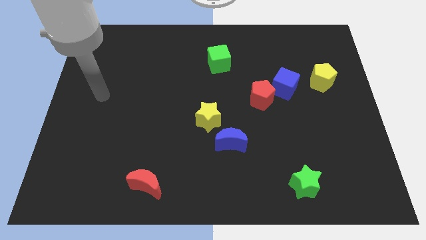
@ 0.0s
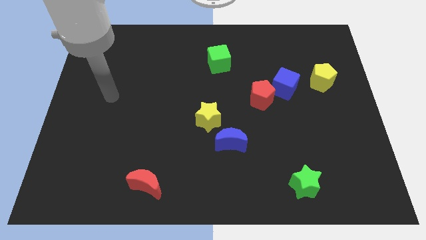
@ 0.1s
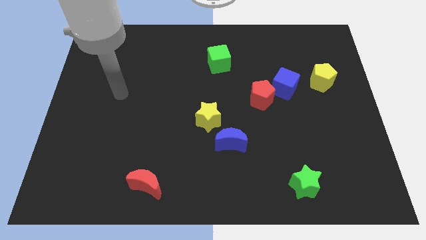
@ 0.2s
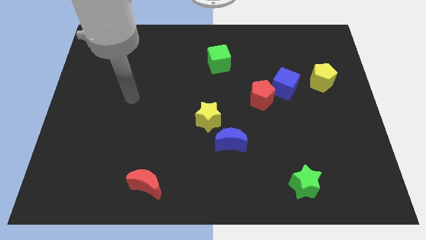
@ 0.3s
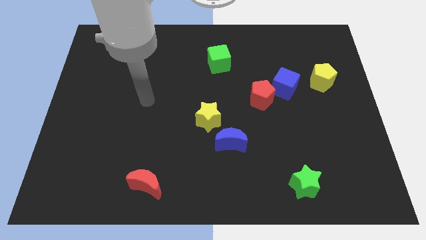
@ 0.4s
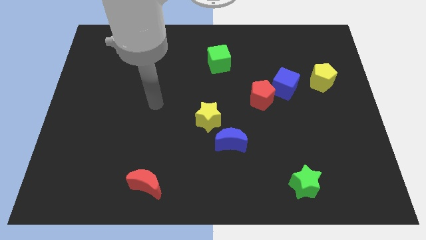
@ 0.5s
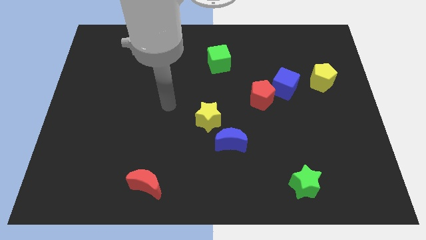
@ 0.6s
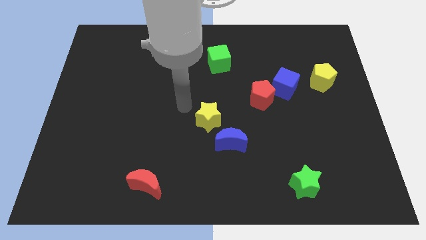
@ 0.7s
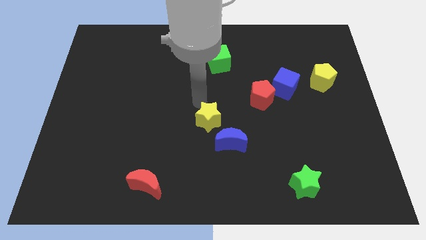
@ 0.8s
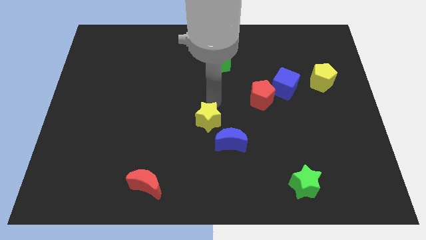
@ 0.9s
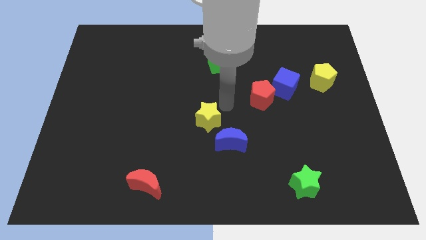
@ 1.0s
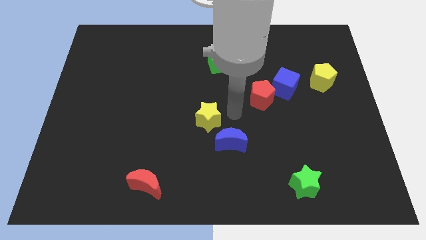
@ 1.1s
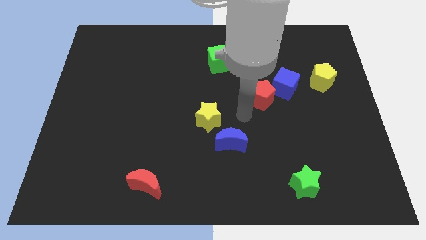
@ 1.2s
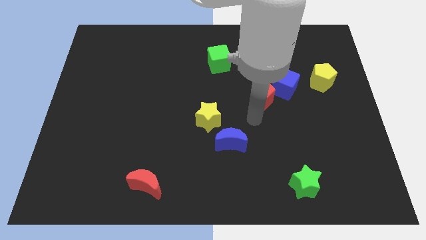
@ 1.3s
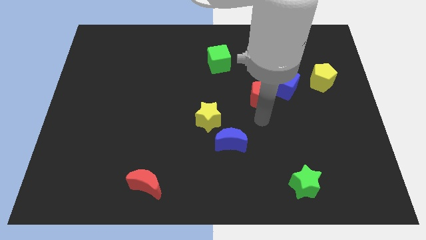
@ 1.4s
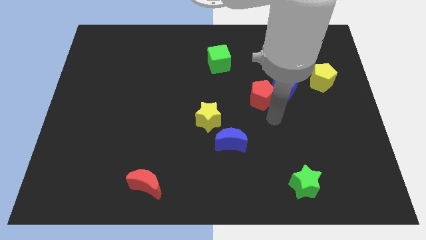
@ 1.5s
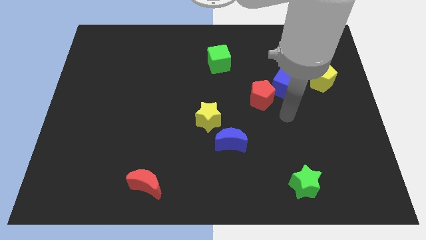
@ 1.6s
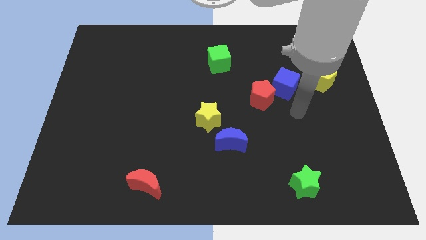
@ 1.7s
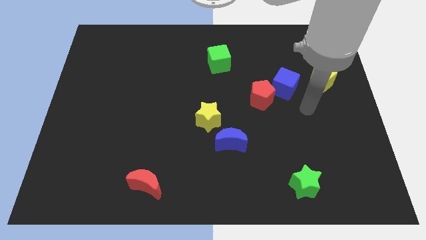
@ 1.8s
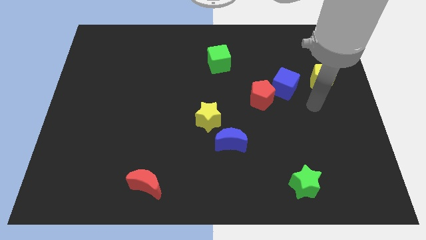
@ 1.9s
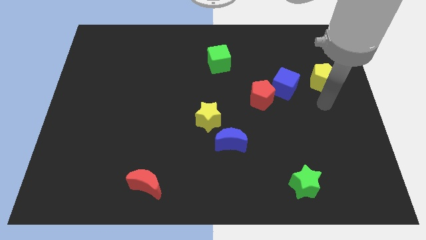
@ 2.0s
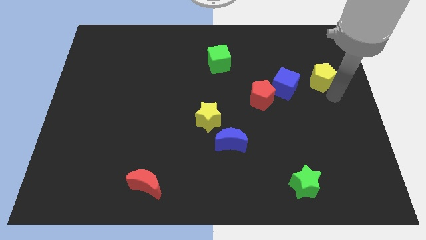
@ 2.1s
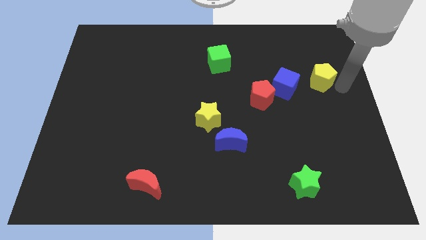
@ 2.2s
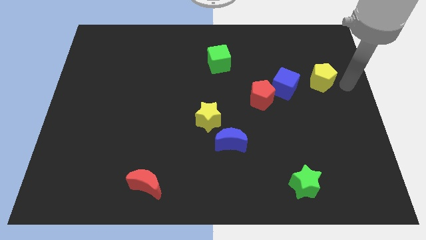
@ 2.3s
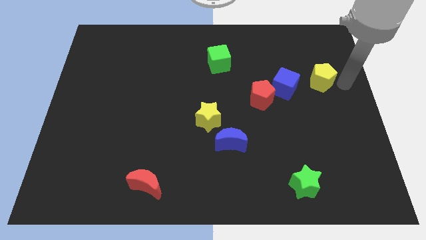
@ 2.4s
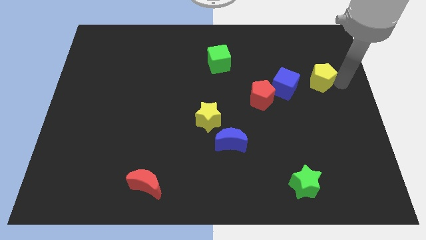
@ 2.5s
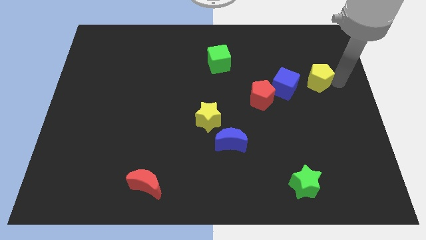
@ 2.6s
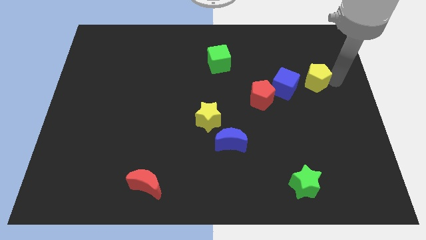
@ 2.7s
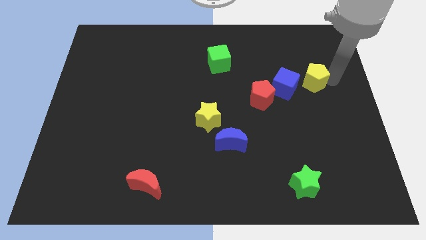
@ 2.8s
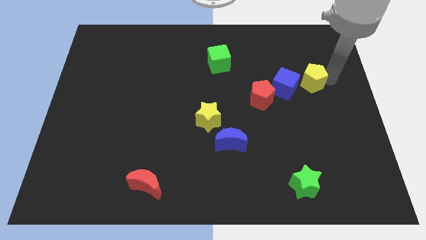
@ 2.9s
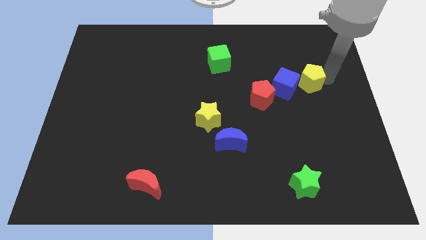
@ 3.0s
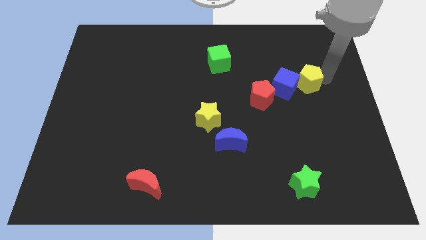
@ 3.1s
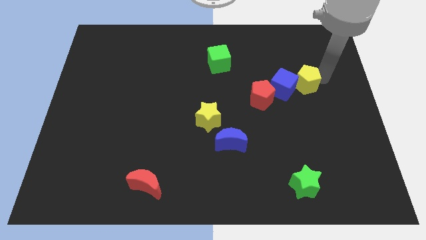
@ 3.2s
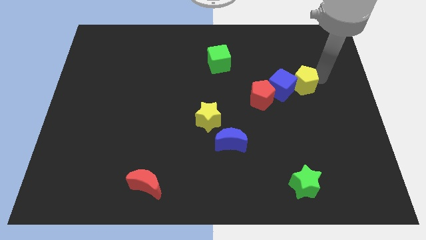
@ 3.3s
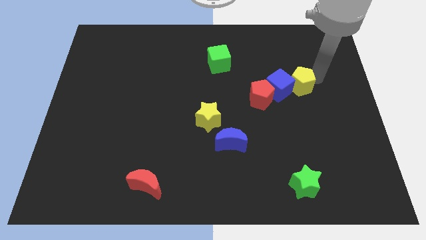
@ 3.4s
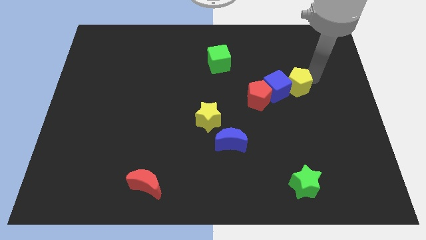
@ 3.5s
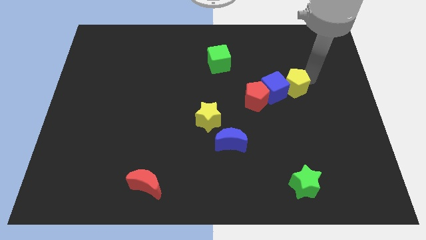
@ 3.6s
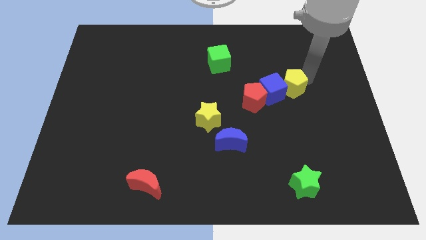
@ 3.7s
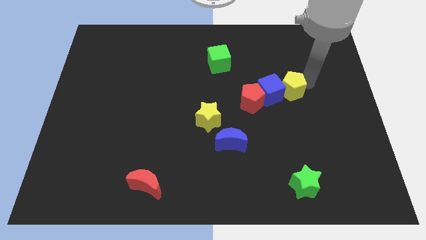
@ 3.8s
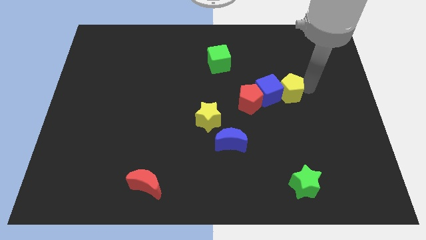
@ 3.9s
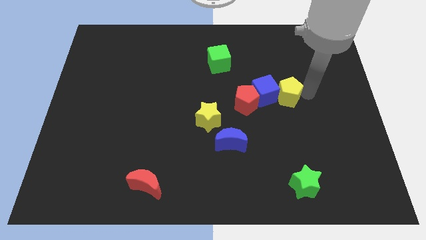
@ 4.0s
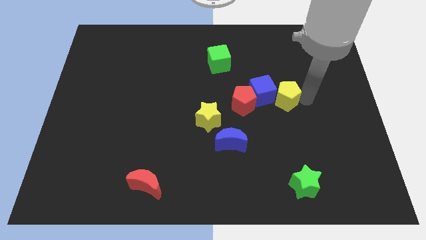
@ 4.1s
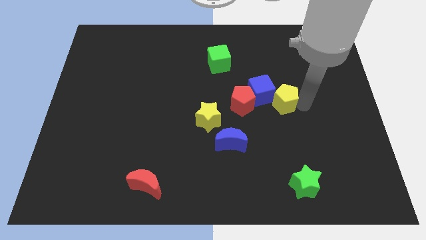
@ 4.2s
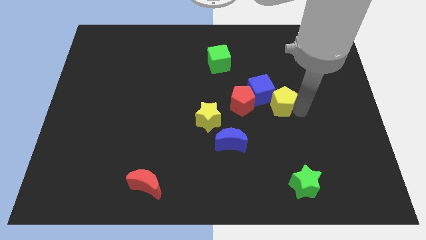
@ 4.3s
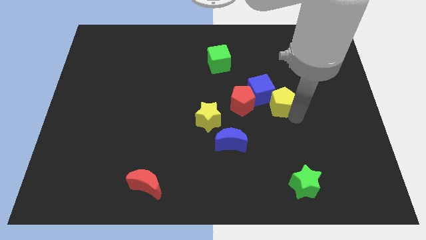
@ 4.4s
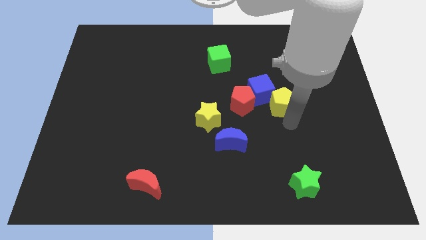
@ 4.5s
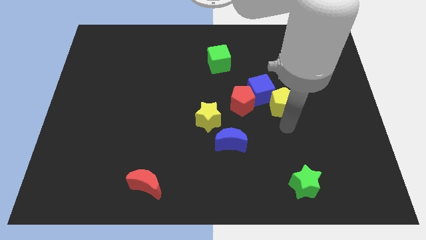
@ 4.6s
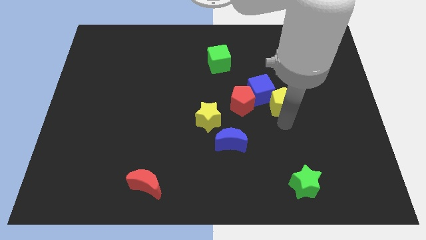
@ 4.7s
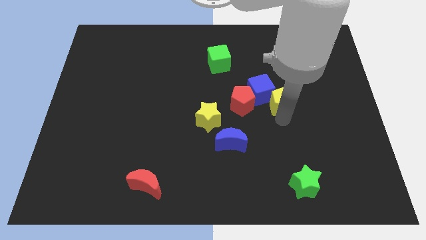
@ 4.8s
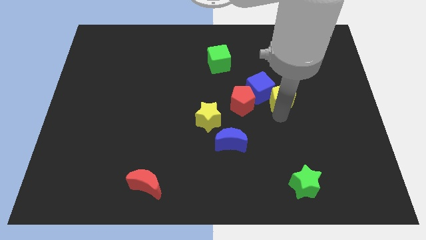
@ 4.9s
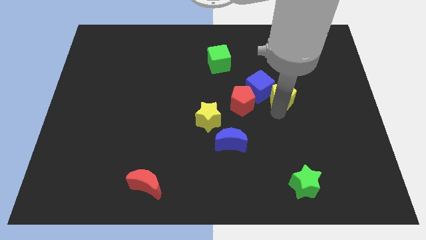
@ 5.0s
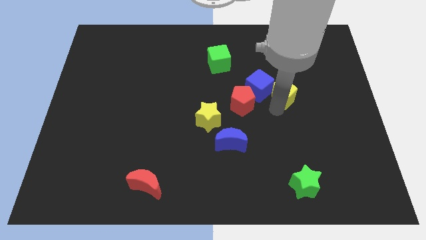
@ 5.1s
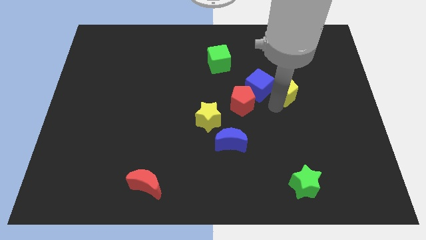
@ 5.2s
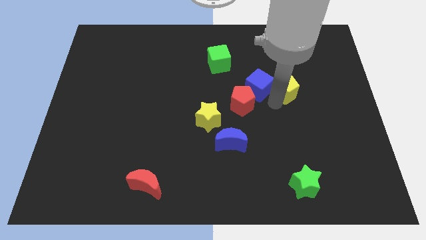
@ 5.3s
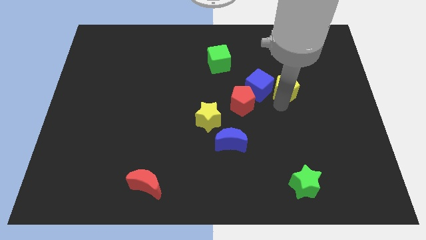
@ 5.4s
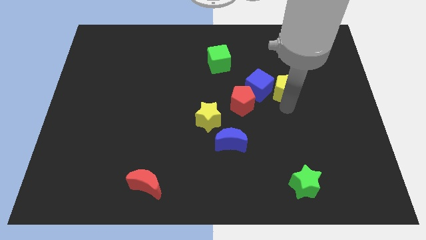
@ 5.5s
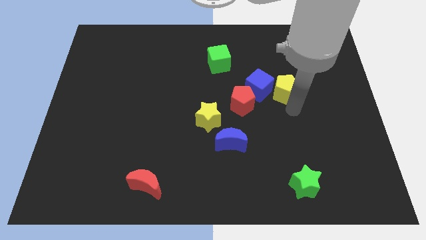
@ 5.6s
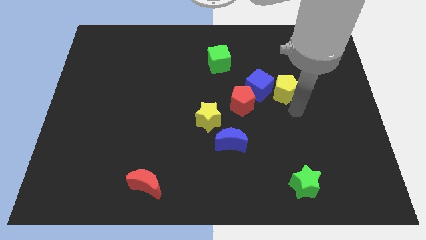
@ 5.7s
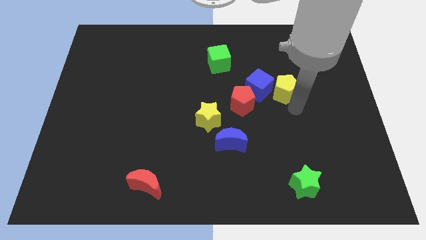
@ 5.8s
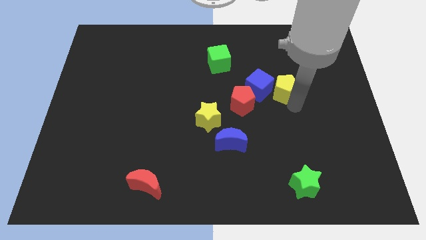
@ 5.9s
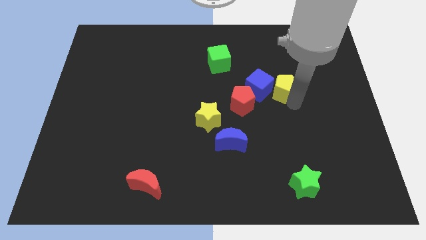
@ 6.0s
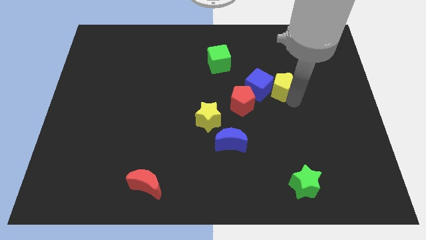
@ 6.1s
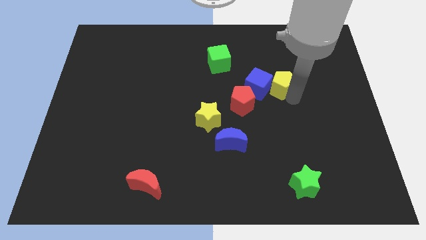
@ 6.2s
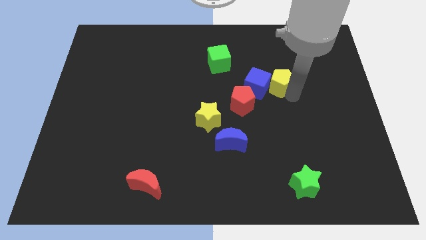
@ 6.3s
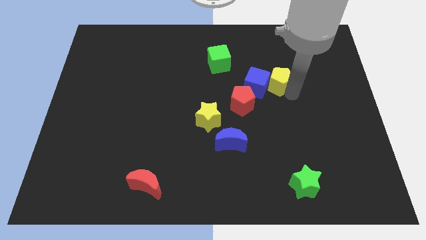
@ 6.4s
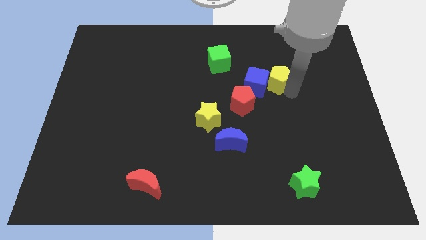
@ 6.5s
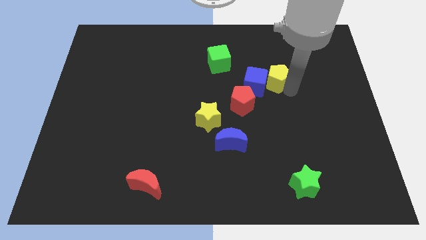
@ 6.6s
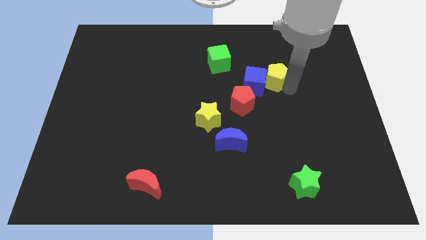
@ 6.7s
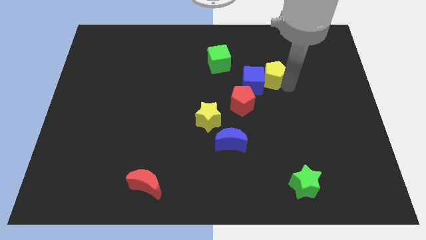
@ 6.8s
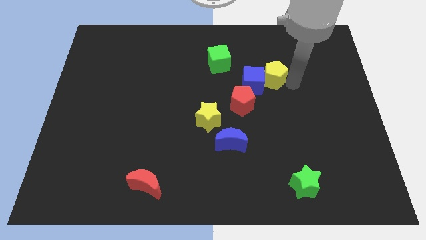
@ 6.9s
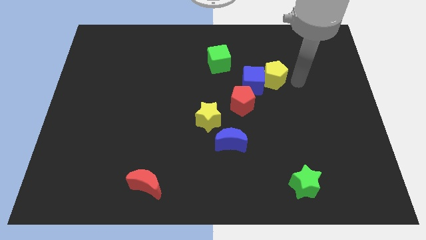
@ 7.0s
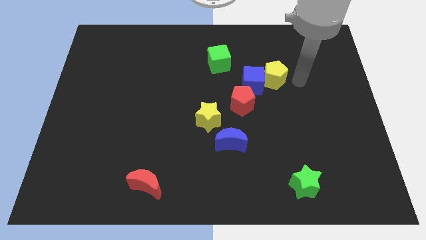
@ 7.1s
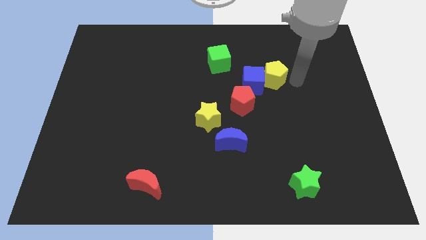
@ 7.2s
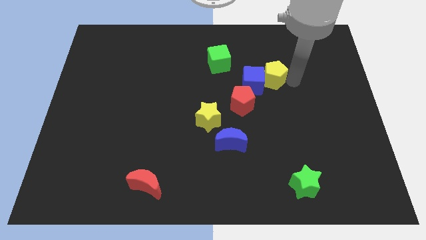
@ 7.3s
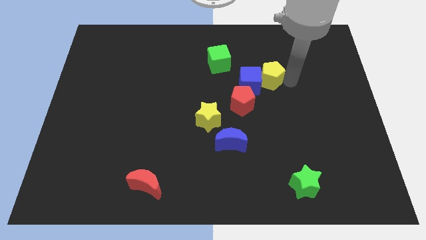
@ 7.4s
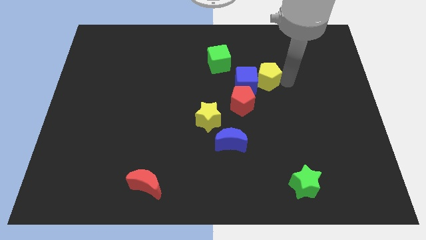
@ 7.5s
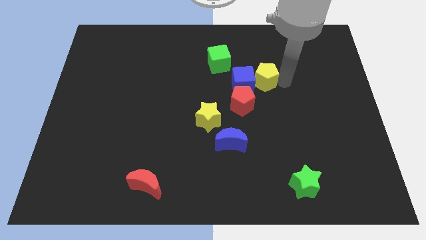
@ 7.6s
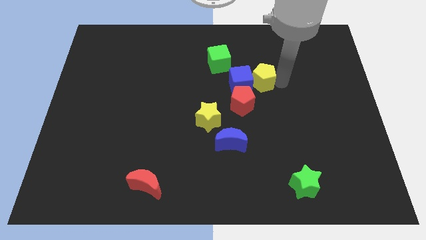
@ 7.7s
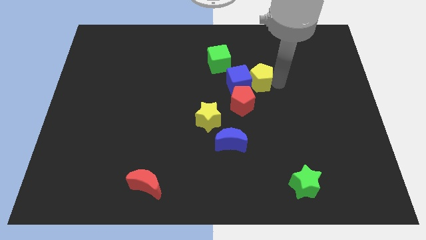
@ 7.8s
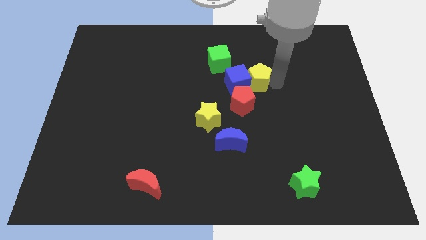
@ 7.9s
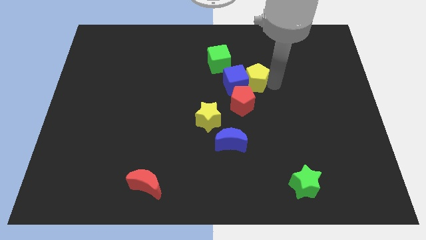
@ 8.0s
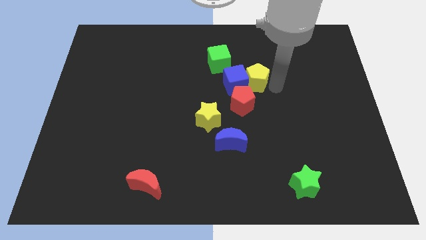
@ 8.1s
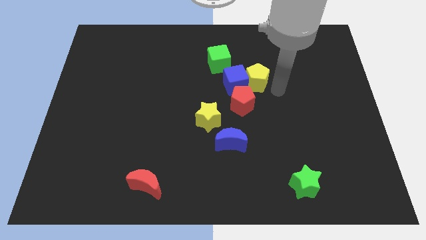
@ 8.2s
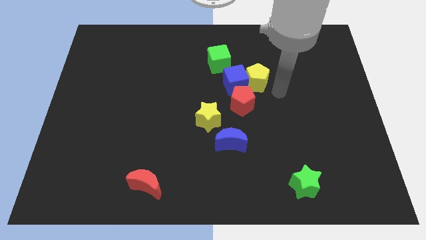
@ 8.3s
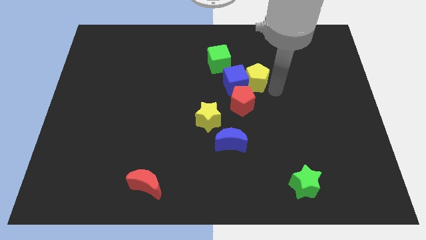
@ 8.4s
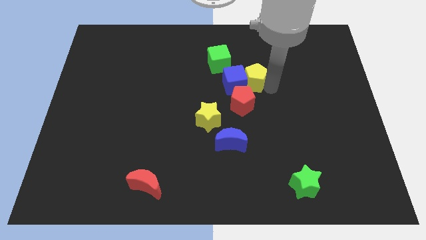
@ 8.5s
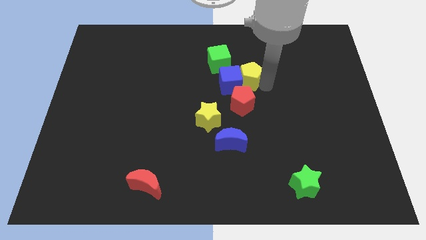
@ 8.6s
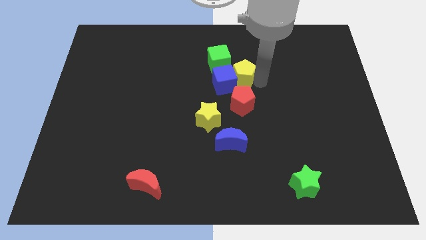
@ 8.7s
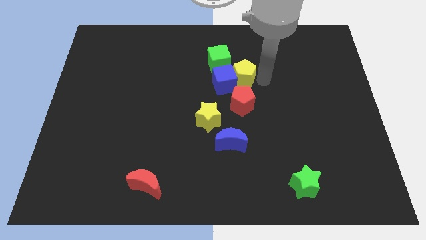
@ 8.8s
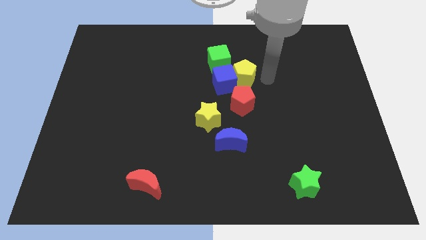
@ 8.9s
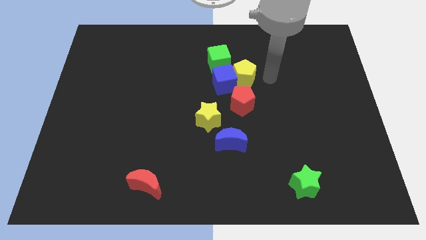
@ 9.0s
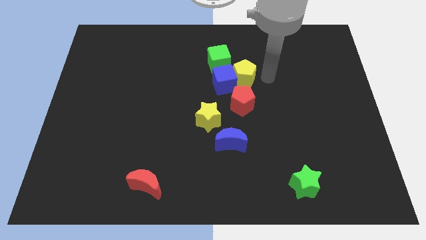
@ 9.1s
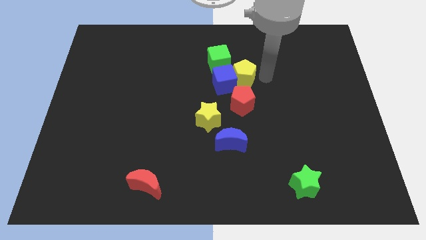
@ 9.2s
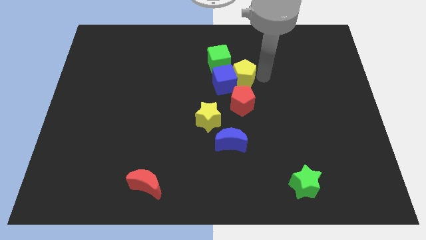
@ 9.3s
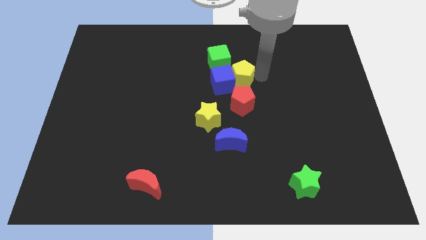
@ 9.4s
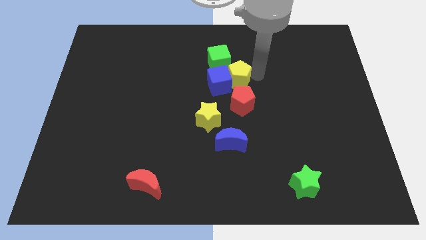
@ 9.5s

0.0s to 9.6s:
slide the yellow pentagon to the left
